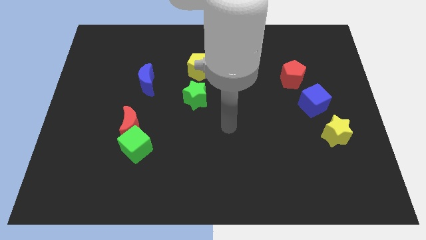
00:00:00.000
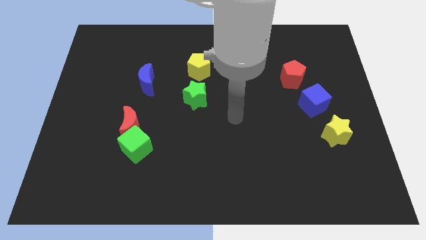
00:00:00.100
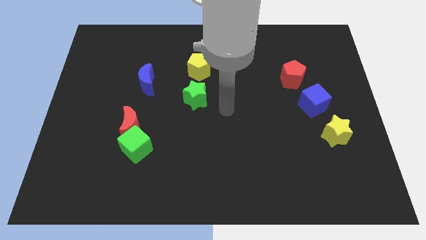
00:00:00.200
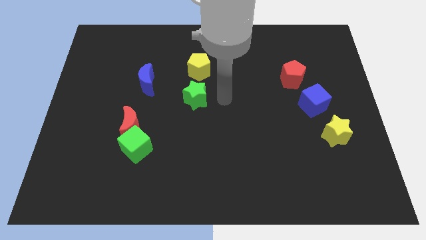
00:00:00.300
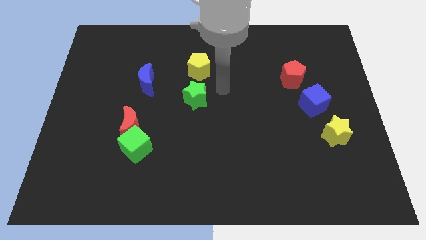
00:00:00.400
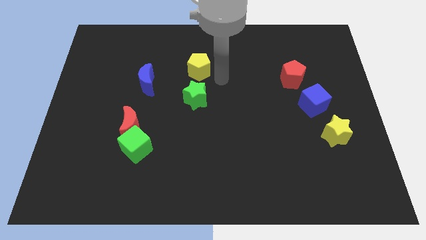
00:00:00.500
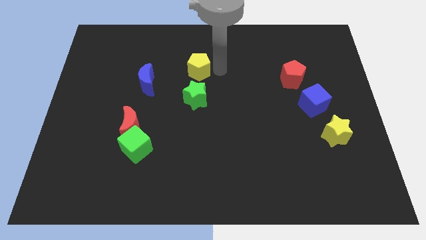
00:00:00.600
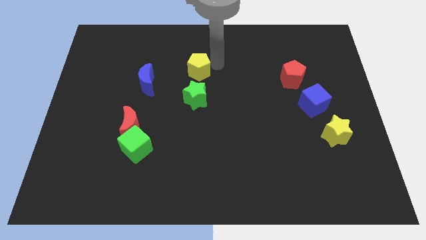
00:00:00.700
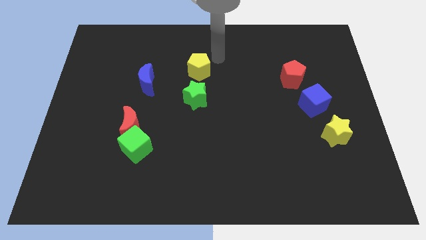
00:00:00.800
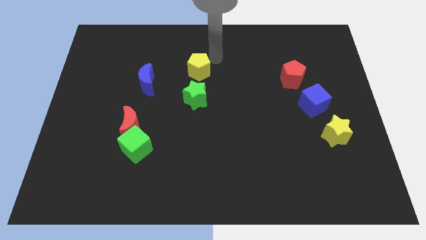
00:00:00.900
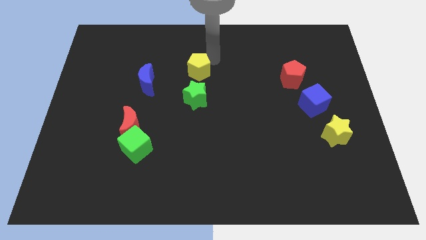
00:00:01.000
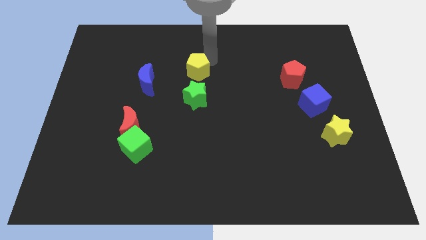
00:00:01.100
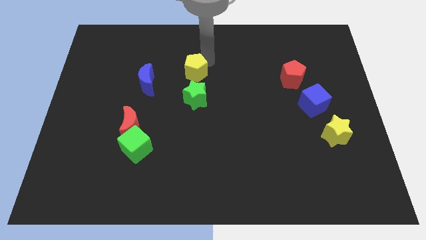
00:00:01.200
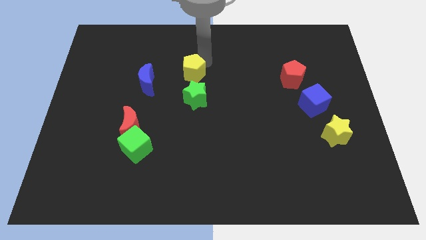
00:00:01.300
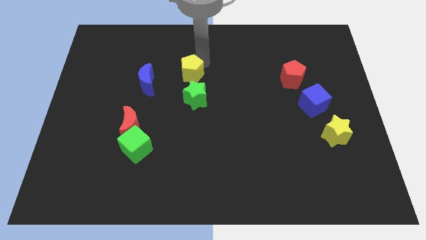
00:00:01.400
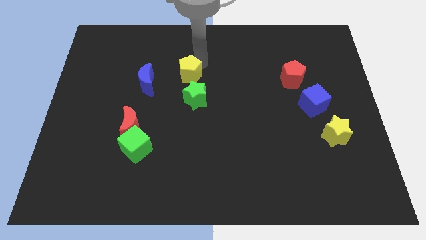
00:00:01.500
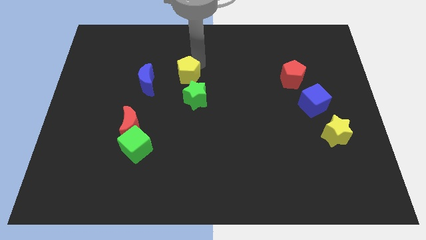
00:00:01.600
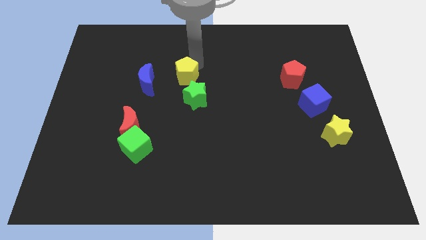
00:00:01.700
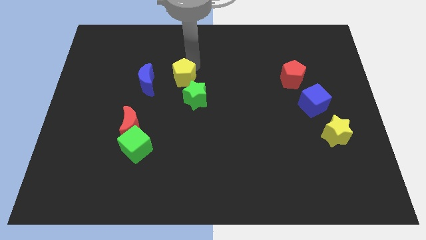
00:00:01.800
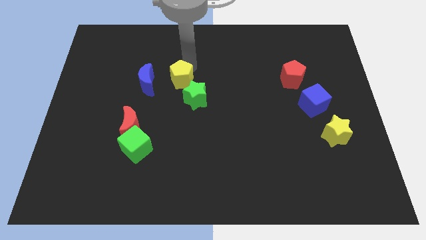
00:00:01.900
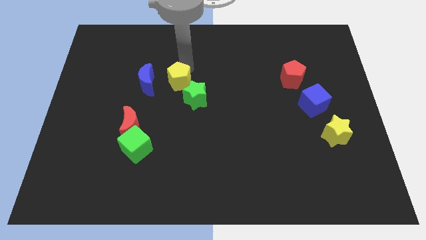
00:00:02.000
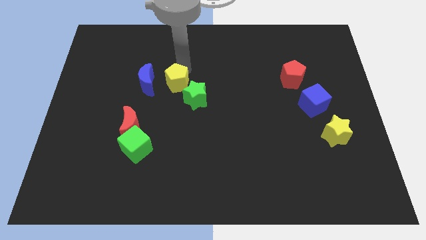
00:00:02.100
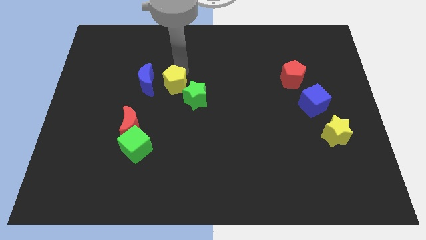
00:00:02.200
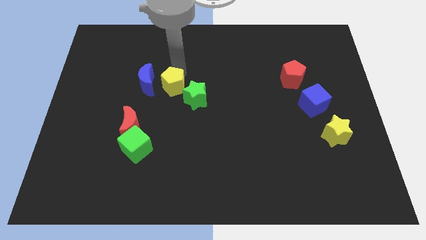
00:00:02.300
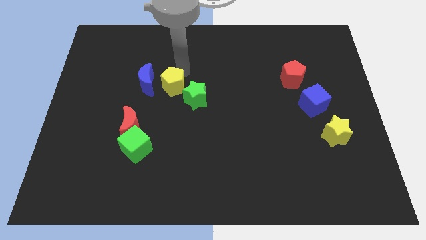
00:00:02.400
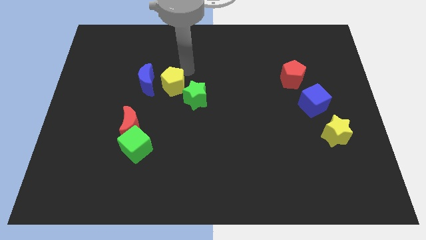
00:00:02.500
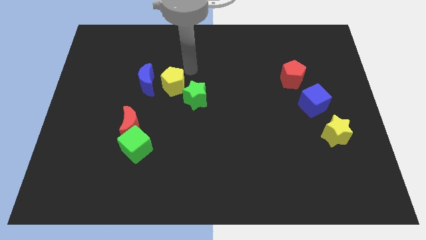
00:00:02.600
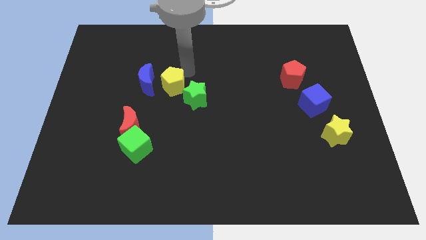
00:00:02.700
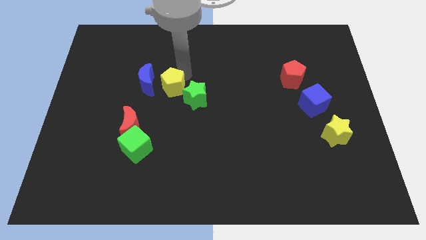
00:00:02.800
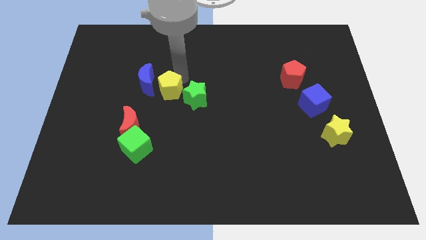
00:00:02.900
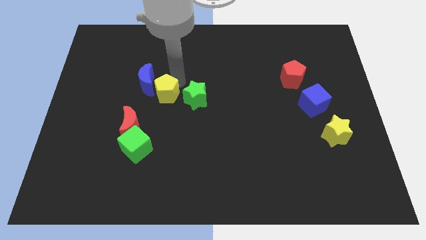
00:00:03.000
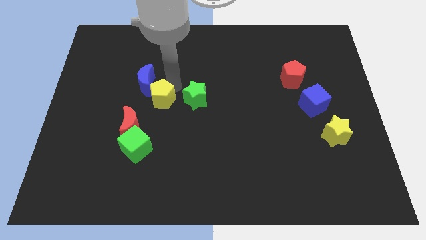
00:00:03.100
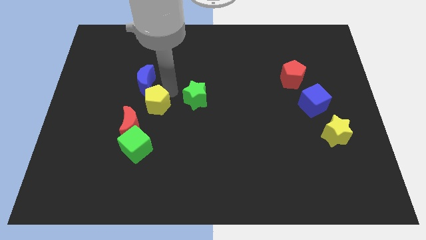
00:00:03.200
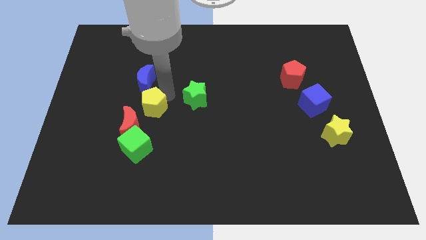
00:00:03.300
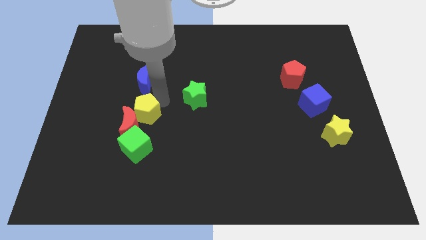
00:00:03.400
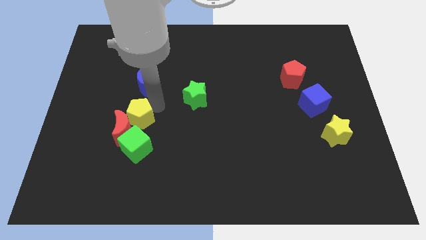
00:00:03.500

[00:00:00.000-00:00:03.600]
push the yellow pentagon downwards and then left

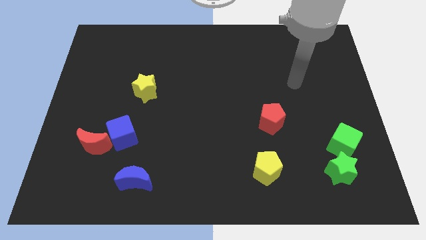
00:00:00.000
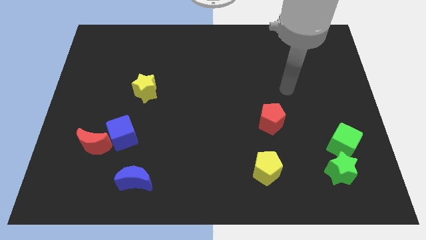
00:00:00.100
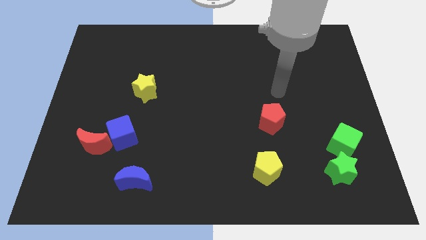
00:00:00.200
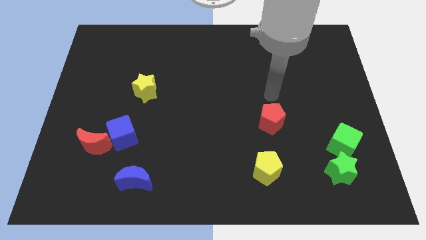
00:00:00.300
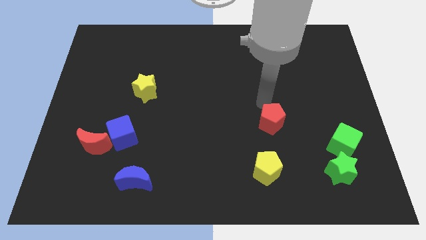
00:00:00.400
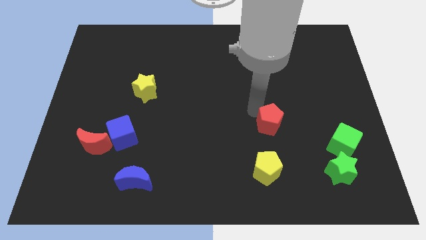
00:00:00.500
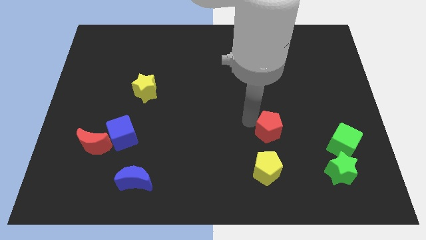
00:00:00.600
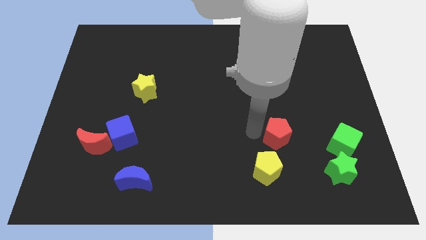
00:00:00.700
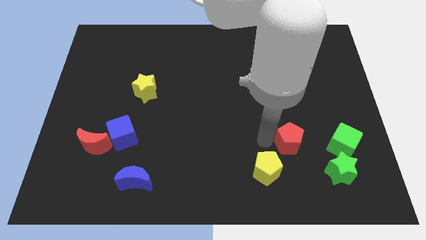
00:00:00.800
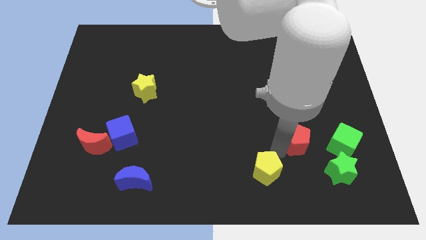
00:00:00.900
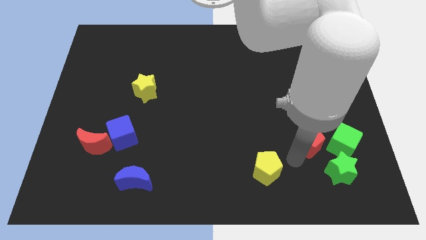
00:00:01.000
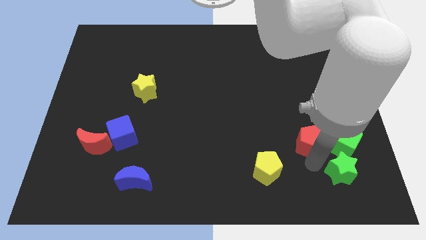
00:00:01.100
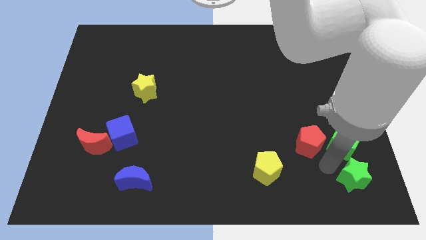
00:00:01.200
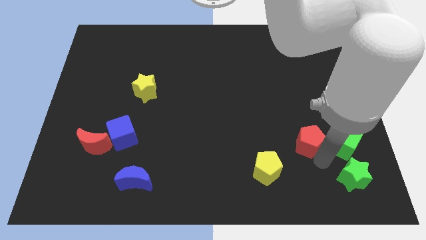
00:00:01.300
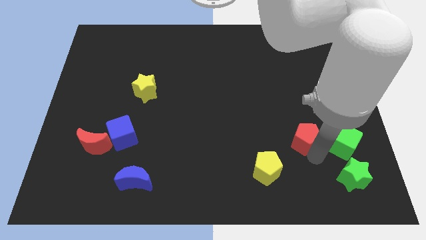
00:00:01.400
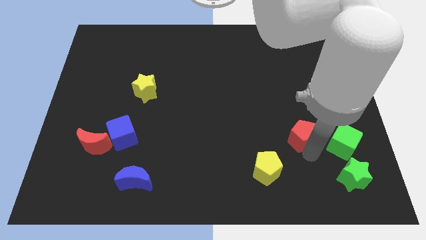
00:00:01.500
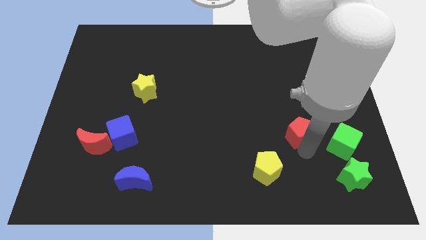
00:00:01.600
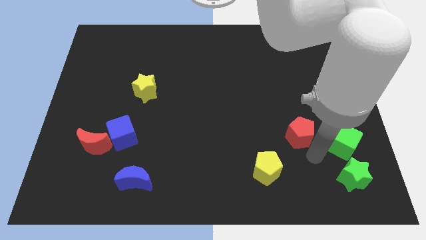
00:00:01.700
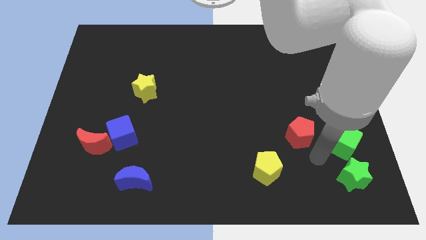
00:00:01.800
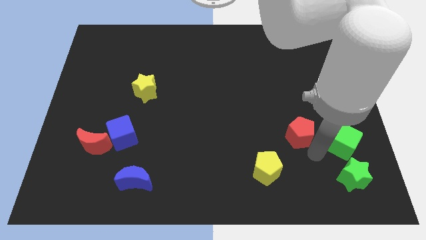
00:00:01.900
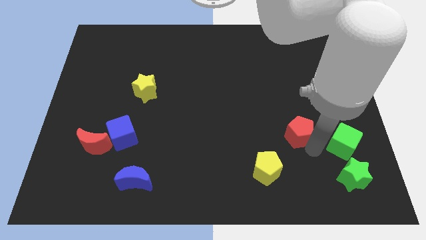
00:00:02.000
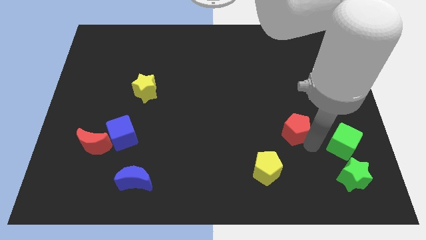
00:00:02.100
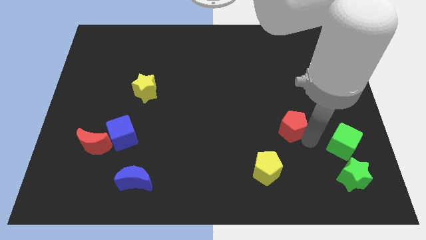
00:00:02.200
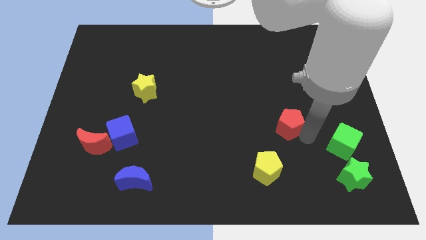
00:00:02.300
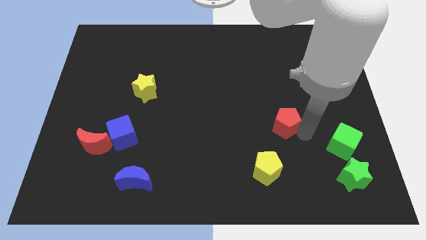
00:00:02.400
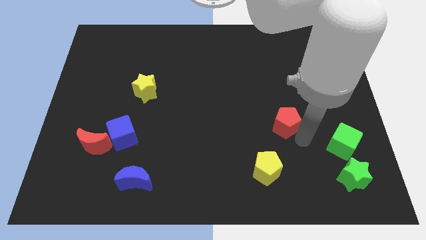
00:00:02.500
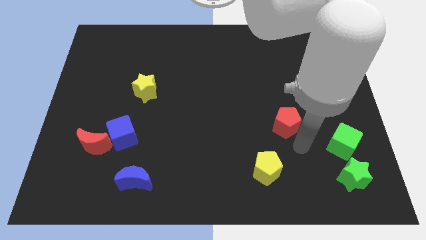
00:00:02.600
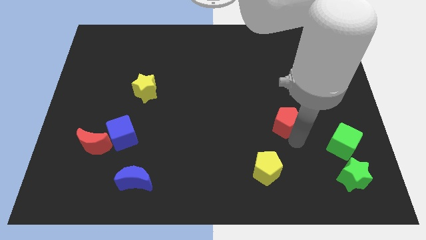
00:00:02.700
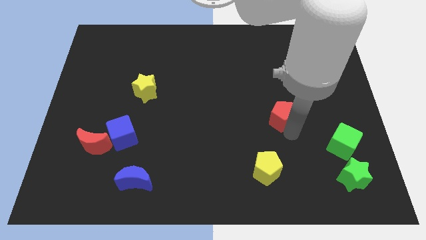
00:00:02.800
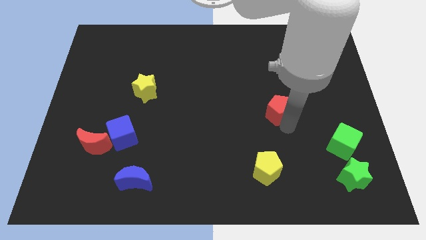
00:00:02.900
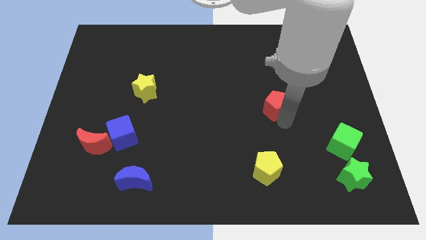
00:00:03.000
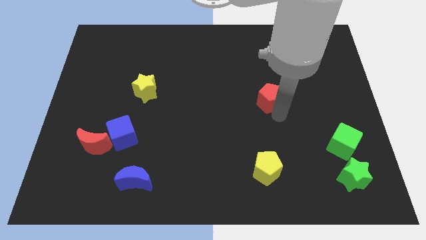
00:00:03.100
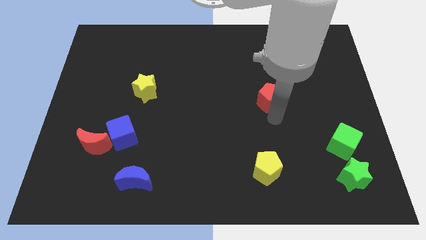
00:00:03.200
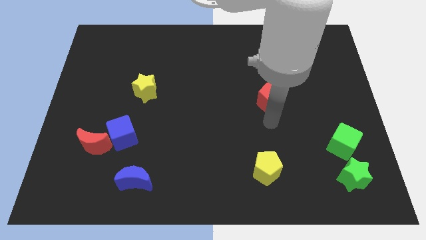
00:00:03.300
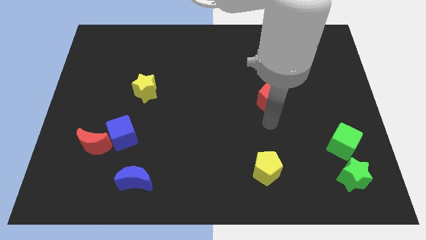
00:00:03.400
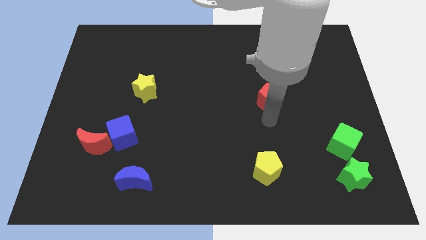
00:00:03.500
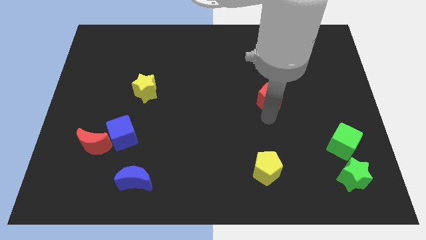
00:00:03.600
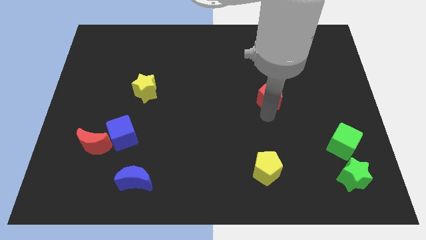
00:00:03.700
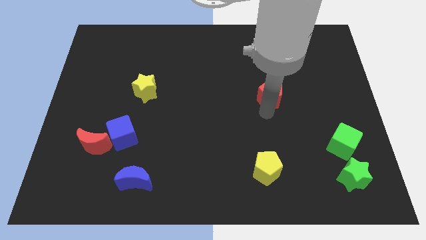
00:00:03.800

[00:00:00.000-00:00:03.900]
push the red pentagon up slightly

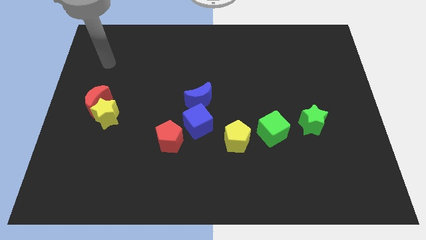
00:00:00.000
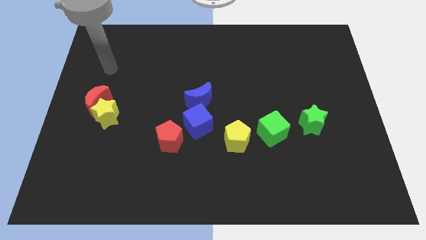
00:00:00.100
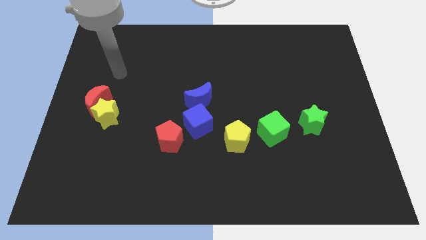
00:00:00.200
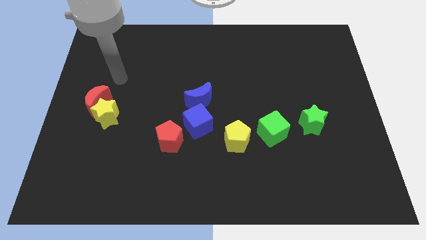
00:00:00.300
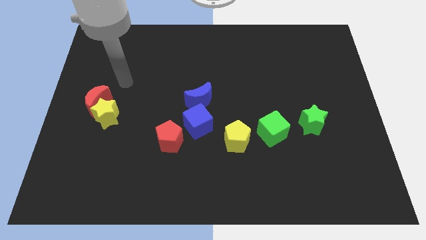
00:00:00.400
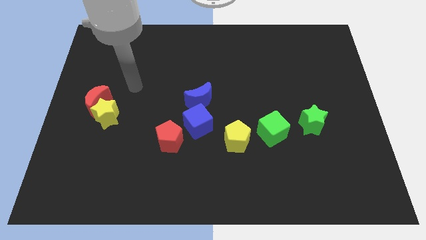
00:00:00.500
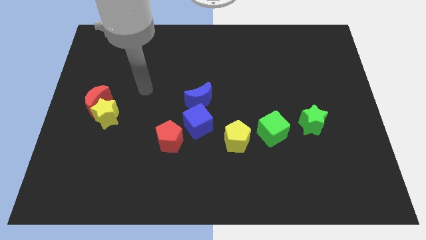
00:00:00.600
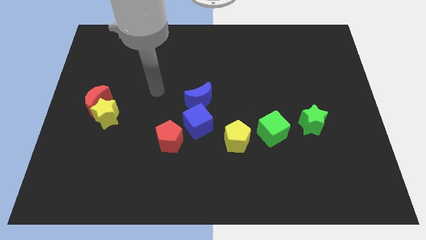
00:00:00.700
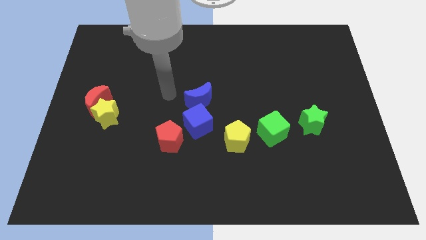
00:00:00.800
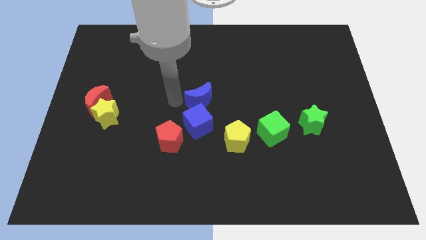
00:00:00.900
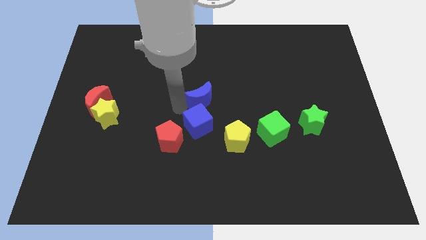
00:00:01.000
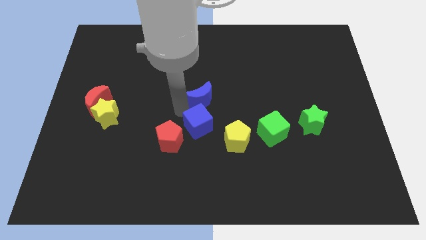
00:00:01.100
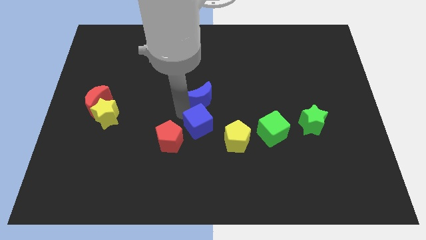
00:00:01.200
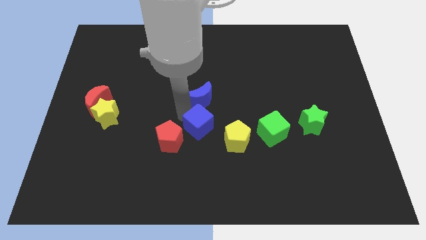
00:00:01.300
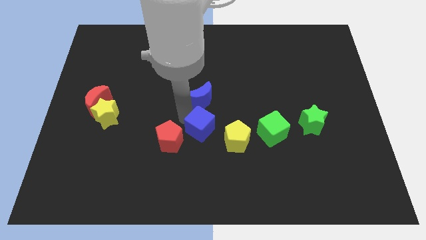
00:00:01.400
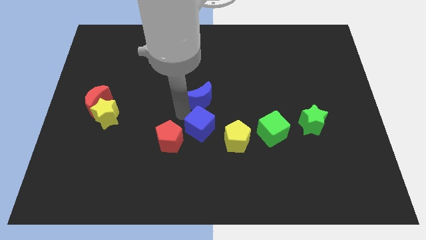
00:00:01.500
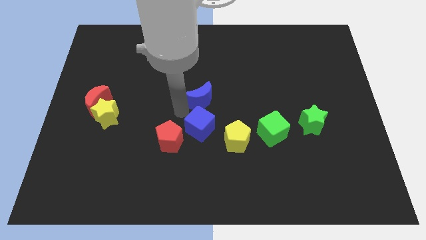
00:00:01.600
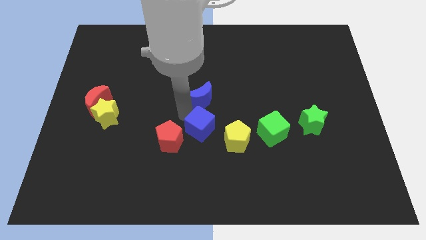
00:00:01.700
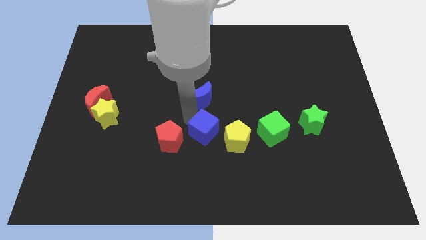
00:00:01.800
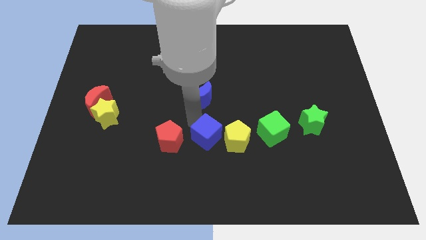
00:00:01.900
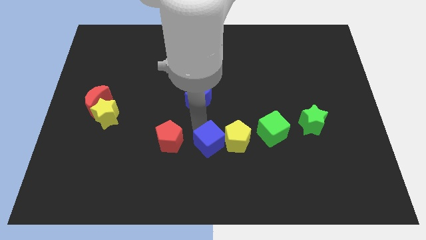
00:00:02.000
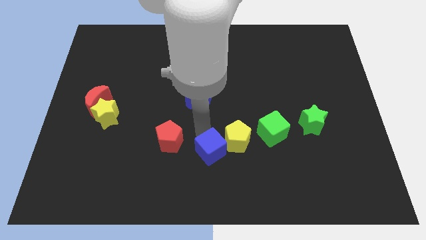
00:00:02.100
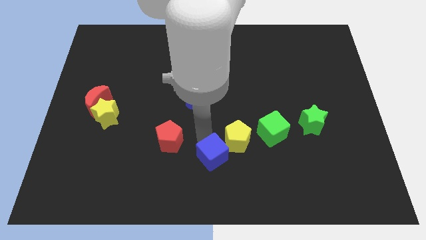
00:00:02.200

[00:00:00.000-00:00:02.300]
push the blue cube diagonally downwards and to the right slightly
